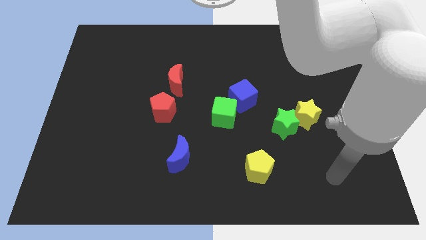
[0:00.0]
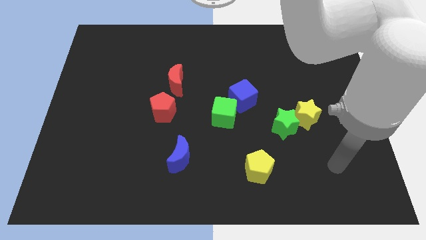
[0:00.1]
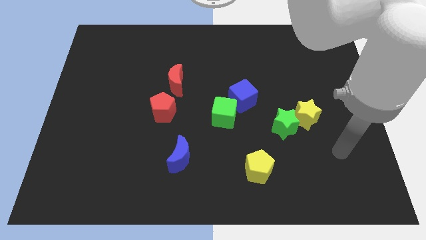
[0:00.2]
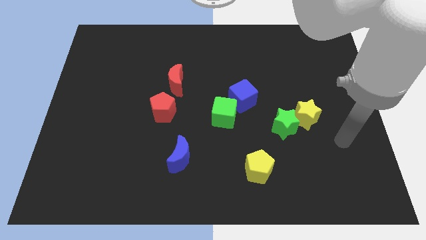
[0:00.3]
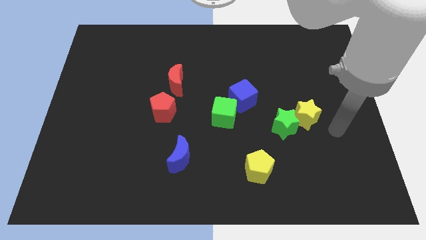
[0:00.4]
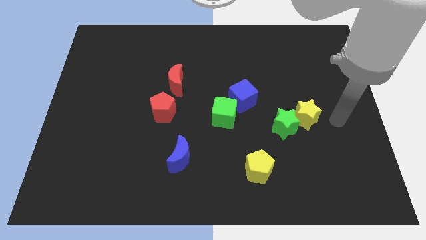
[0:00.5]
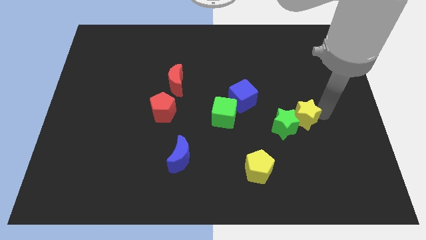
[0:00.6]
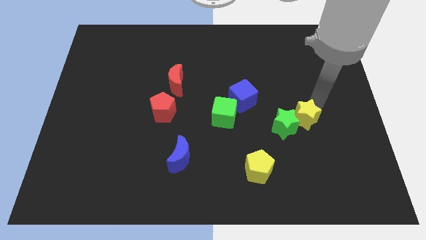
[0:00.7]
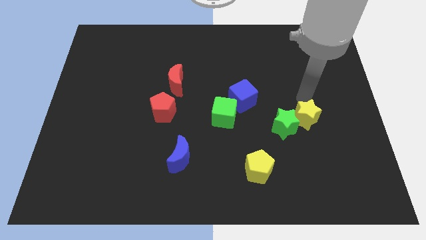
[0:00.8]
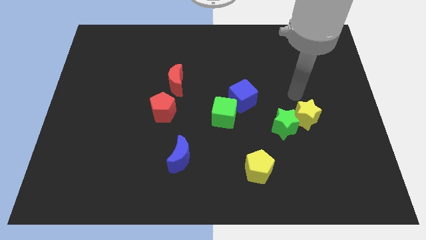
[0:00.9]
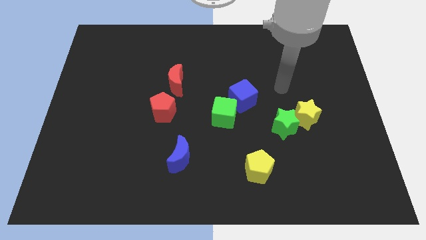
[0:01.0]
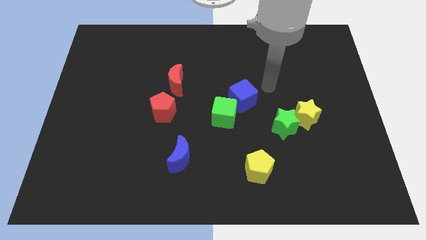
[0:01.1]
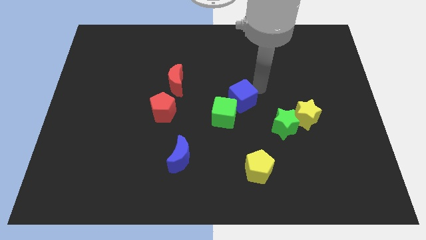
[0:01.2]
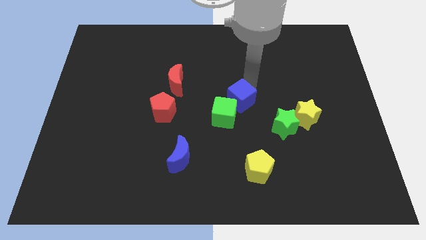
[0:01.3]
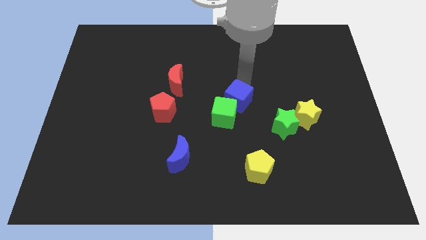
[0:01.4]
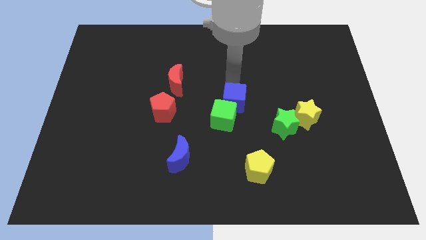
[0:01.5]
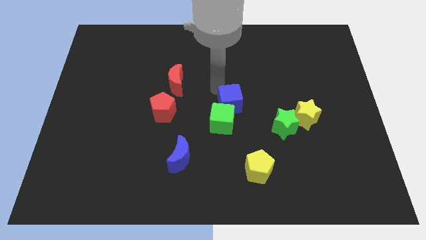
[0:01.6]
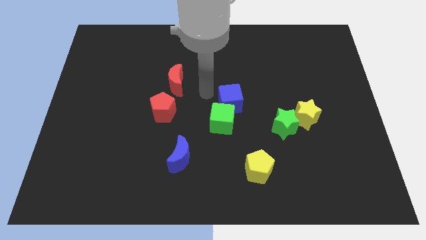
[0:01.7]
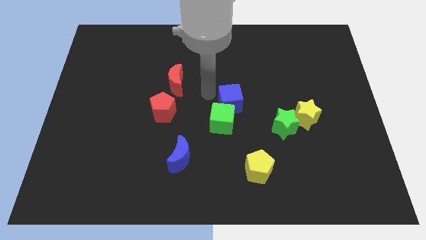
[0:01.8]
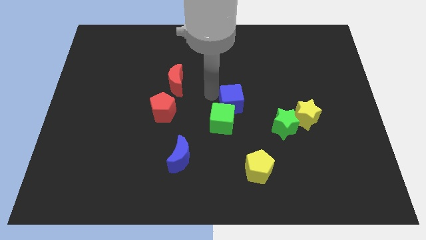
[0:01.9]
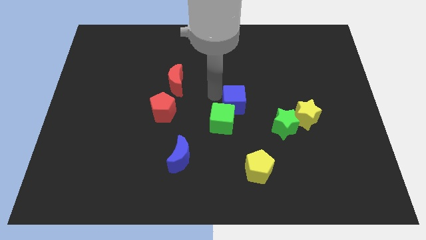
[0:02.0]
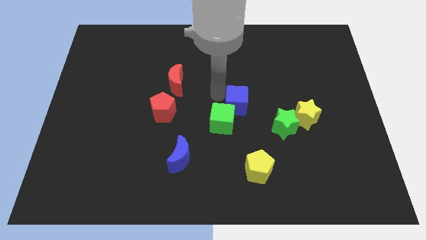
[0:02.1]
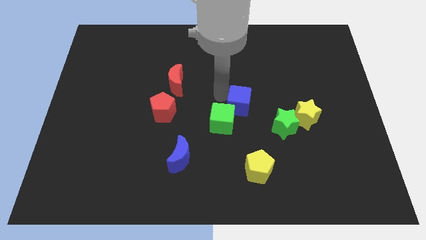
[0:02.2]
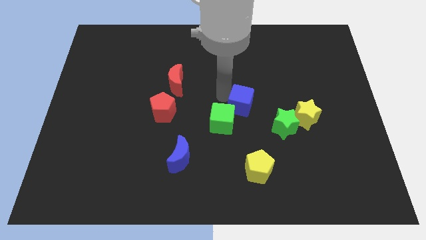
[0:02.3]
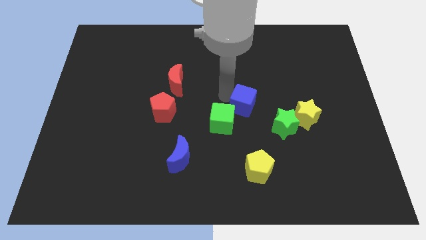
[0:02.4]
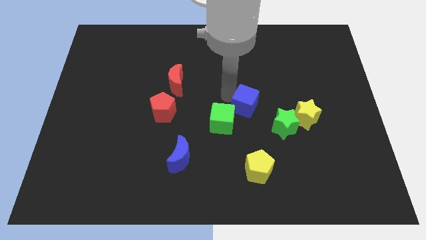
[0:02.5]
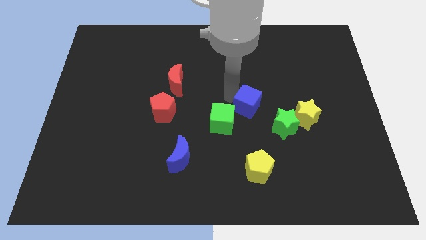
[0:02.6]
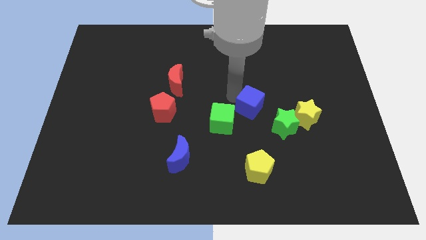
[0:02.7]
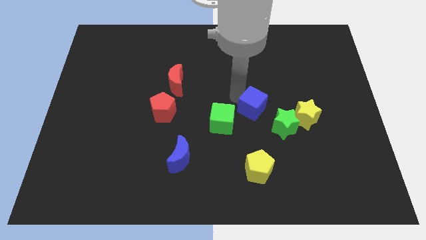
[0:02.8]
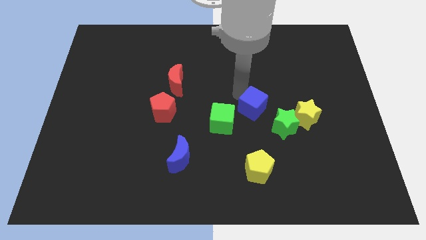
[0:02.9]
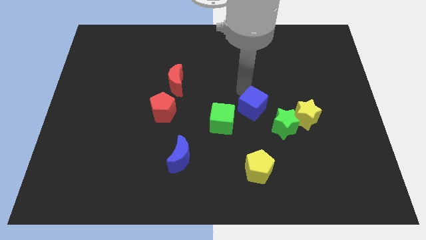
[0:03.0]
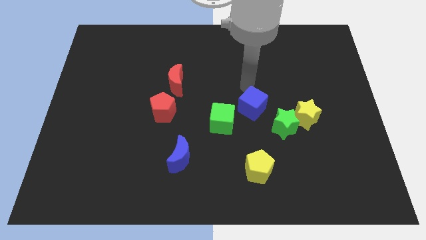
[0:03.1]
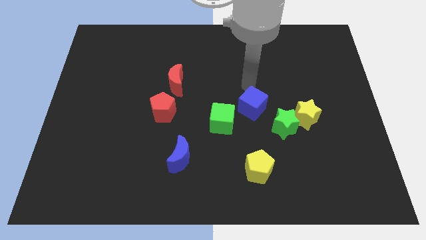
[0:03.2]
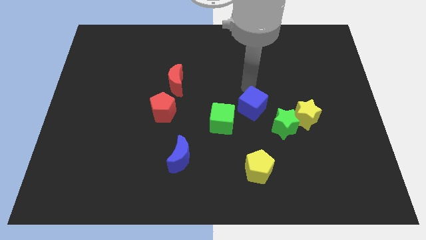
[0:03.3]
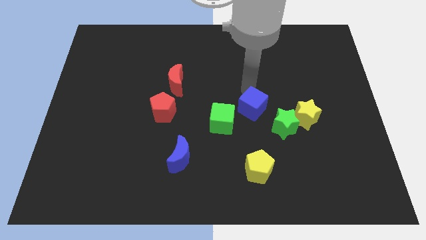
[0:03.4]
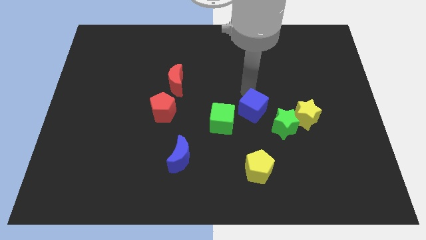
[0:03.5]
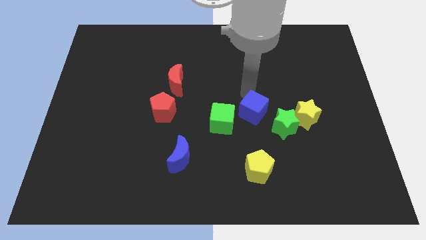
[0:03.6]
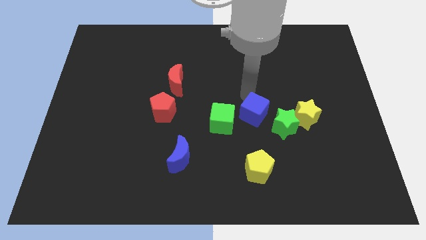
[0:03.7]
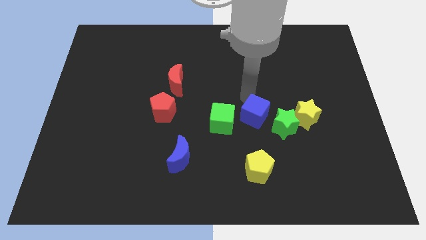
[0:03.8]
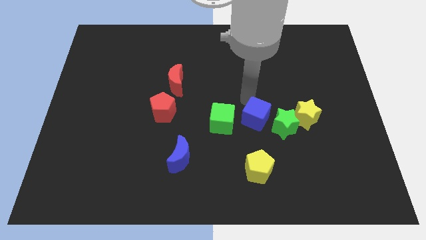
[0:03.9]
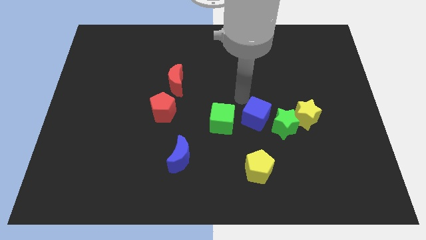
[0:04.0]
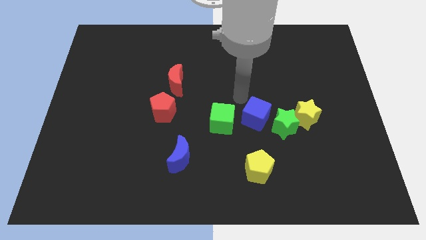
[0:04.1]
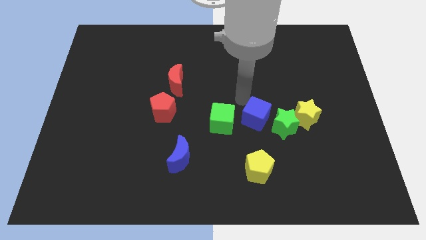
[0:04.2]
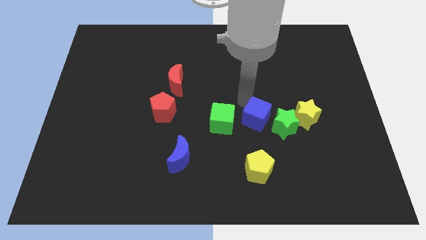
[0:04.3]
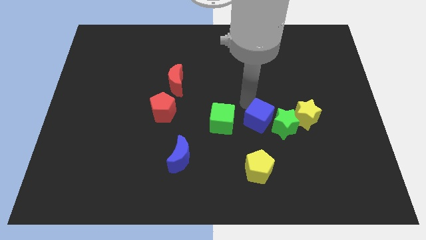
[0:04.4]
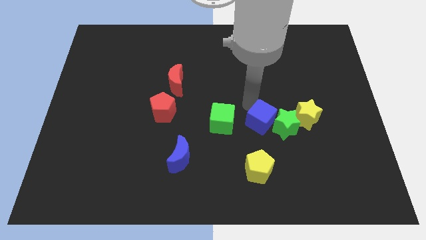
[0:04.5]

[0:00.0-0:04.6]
slide the blue cube a little down and then right

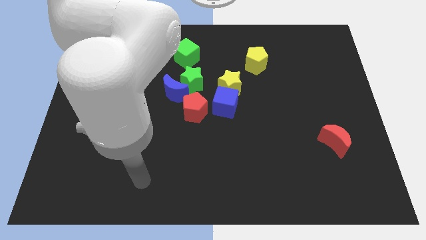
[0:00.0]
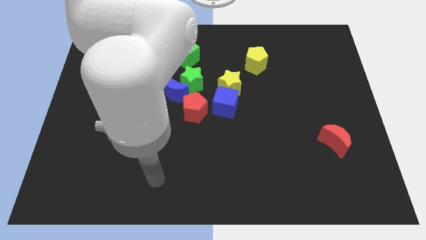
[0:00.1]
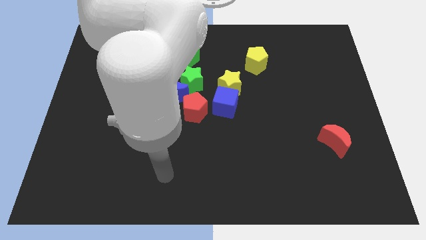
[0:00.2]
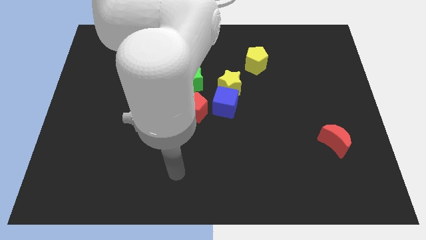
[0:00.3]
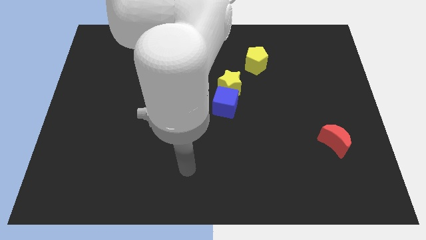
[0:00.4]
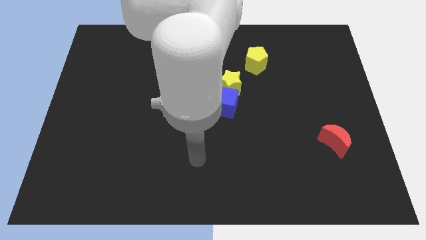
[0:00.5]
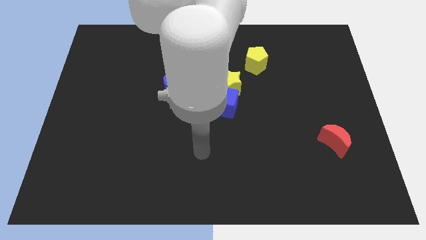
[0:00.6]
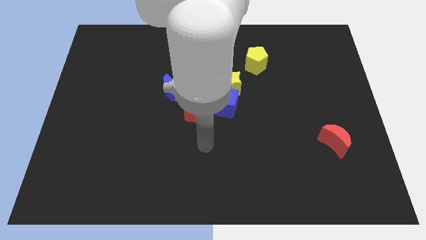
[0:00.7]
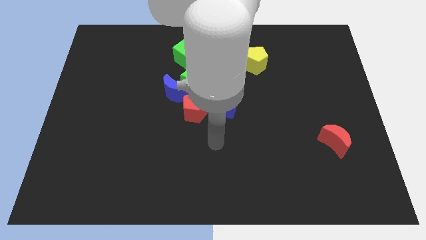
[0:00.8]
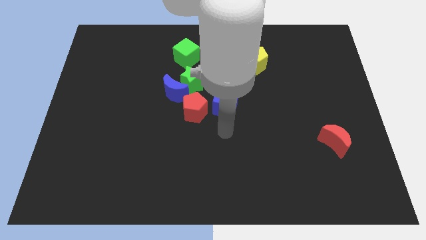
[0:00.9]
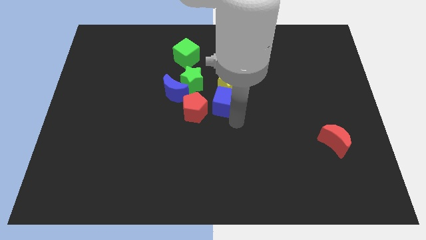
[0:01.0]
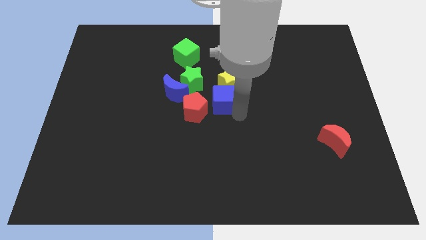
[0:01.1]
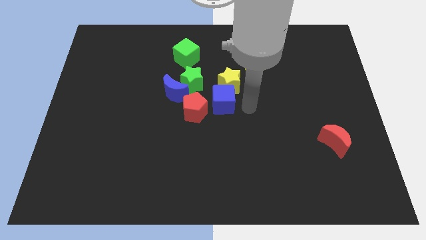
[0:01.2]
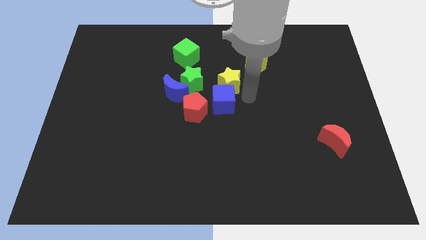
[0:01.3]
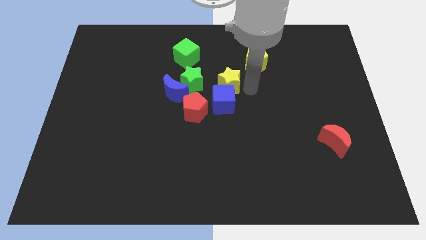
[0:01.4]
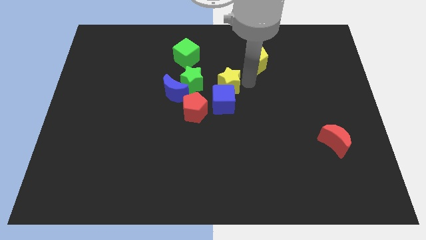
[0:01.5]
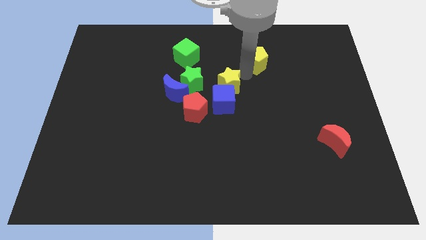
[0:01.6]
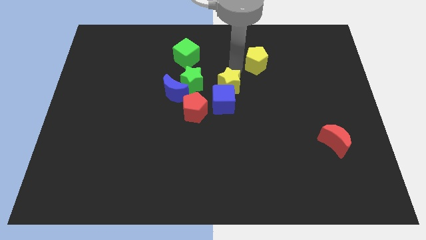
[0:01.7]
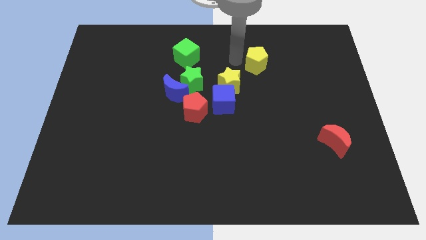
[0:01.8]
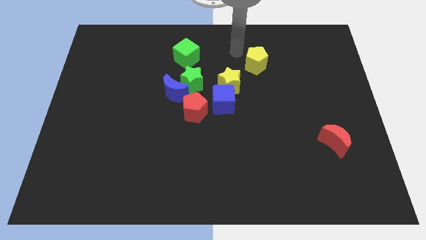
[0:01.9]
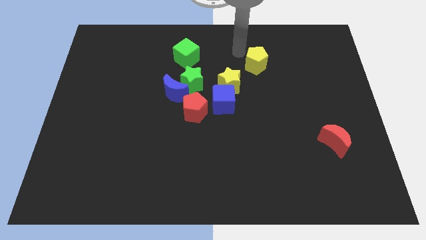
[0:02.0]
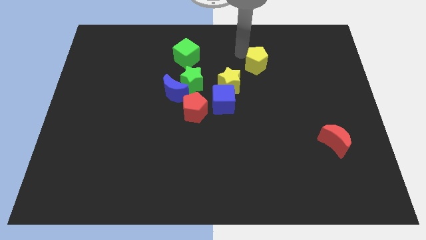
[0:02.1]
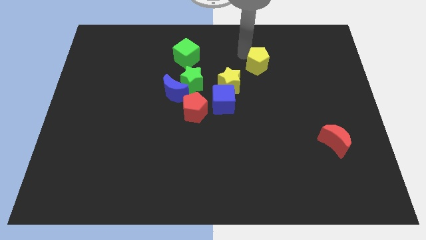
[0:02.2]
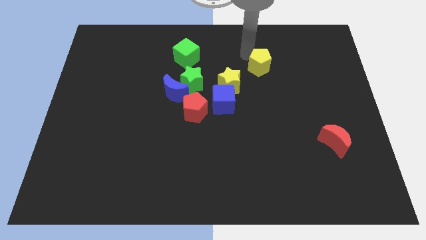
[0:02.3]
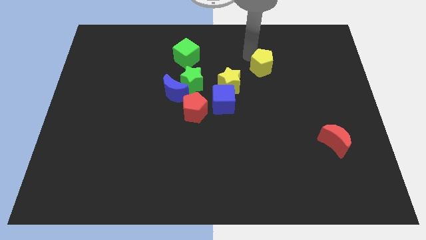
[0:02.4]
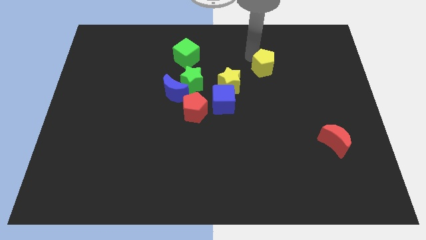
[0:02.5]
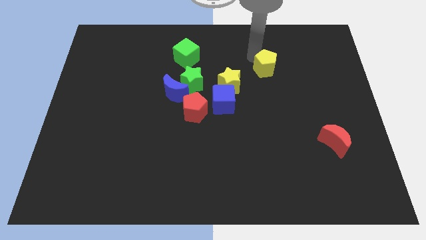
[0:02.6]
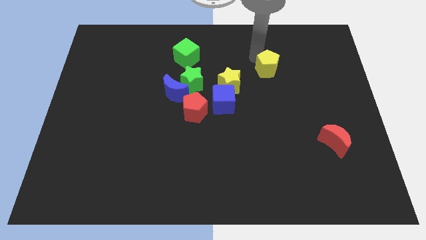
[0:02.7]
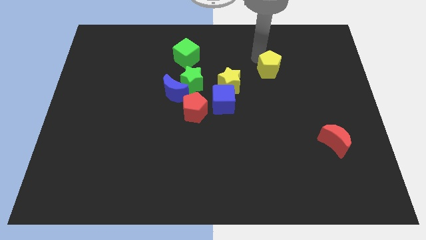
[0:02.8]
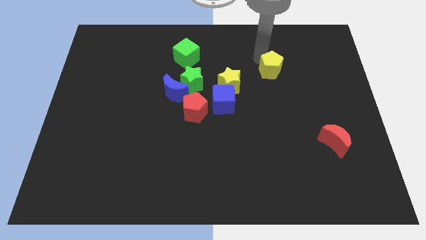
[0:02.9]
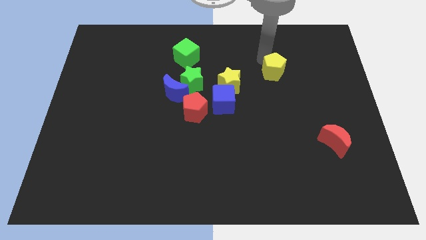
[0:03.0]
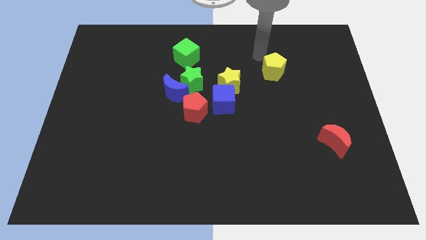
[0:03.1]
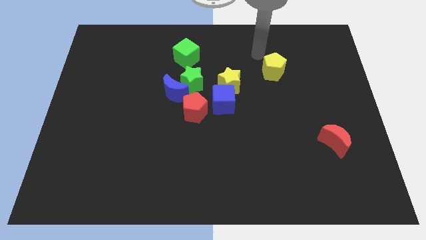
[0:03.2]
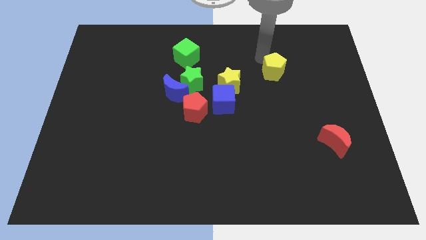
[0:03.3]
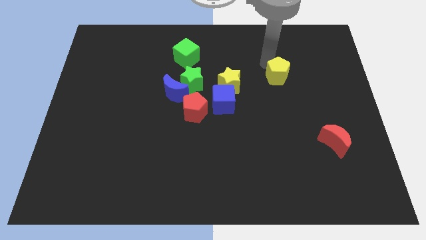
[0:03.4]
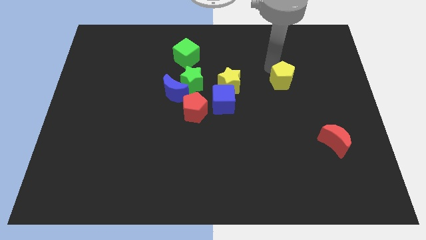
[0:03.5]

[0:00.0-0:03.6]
move the yellow pentagon a little bit downwards and then right
